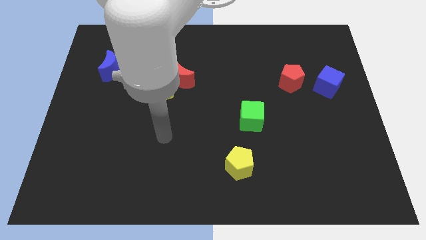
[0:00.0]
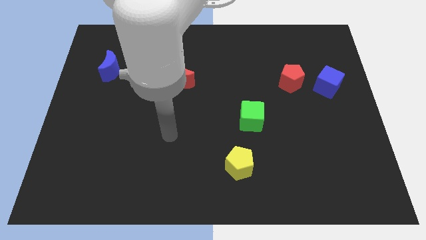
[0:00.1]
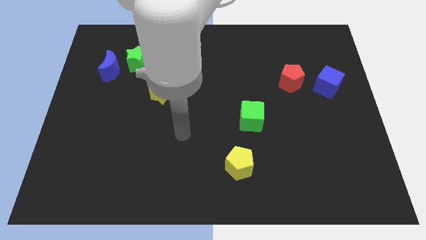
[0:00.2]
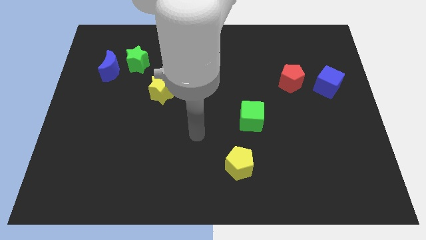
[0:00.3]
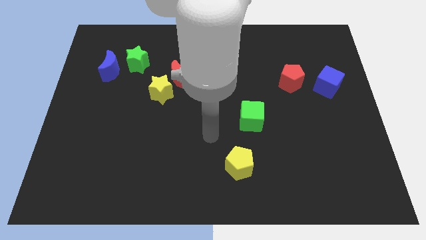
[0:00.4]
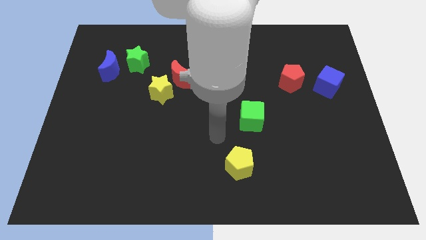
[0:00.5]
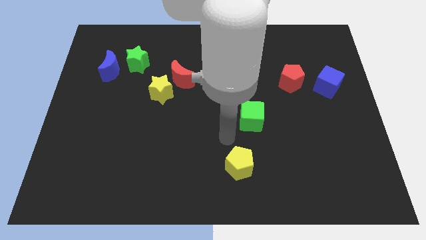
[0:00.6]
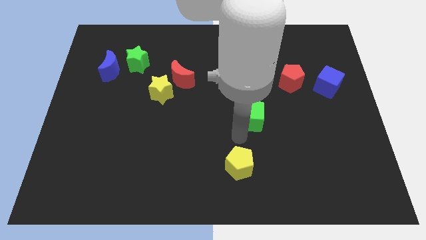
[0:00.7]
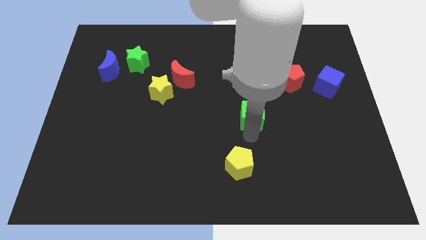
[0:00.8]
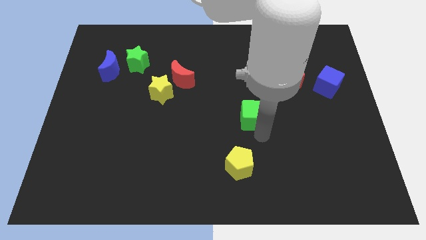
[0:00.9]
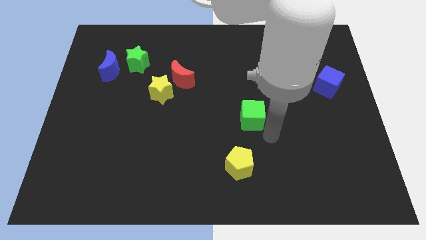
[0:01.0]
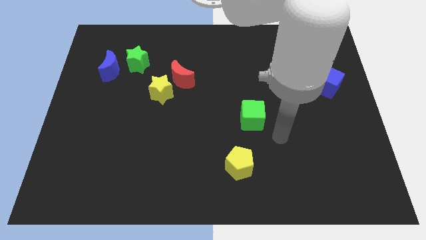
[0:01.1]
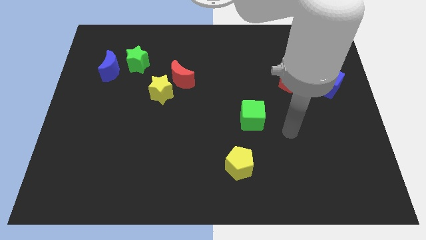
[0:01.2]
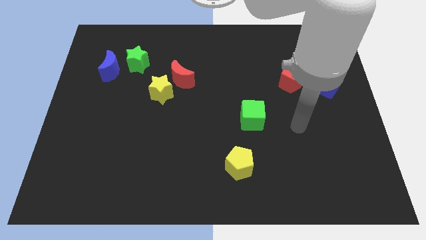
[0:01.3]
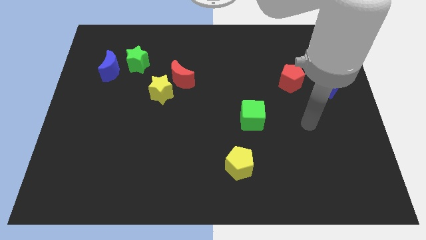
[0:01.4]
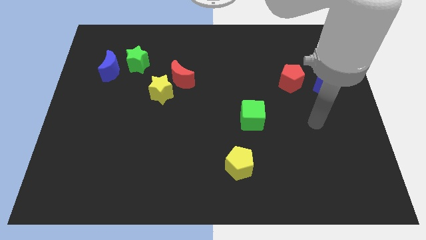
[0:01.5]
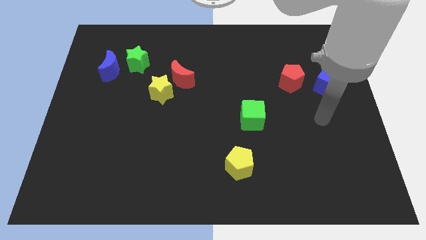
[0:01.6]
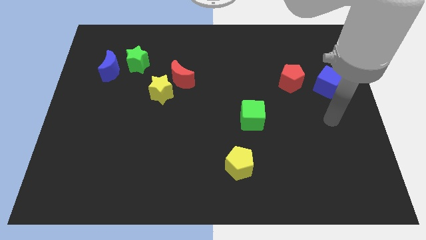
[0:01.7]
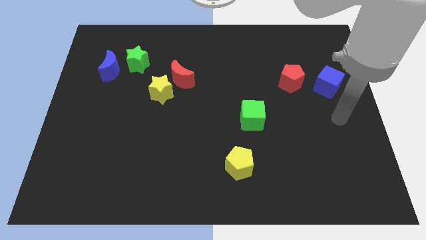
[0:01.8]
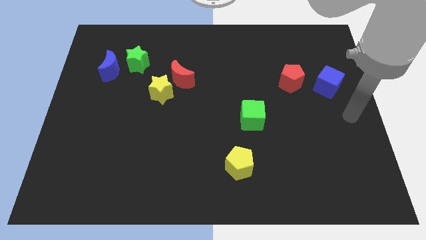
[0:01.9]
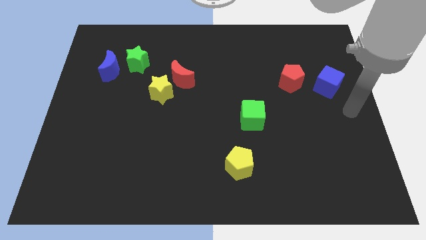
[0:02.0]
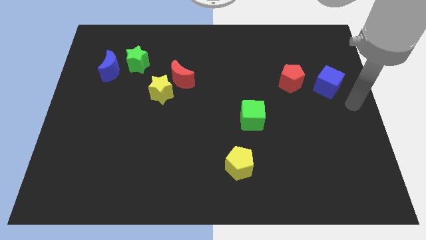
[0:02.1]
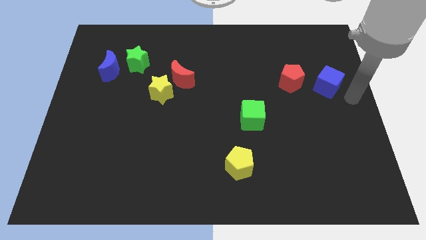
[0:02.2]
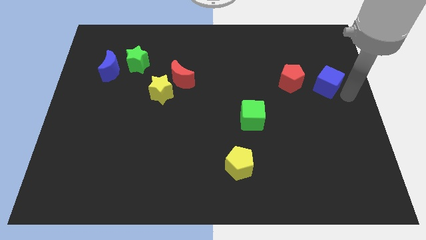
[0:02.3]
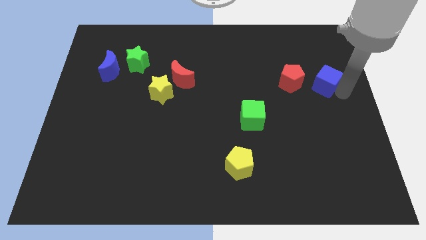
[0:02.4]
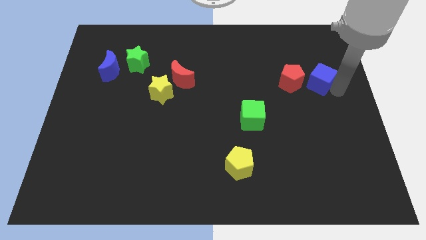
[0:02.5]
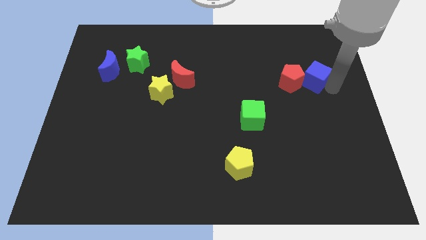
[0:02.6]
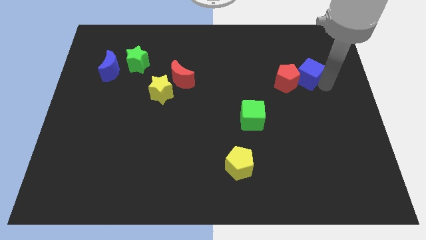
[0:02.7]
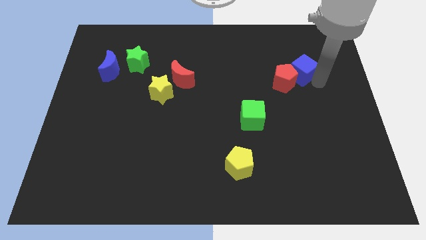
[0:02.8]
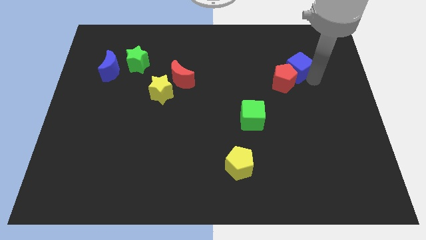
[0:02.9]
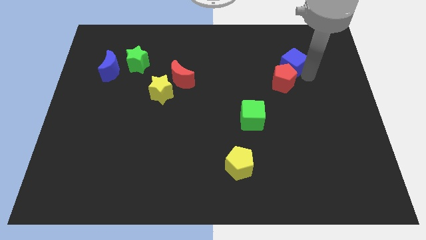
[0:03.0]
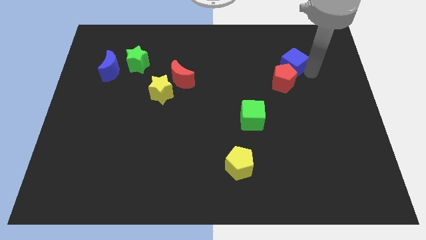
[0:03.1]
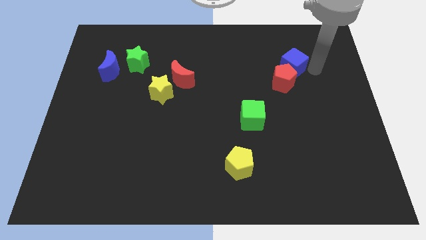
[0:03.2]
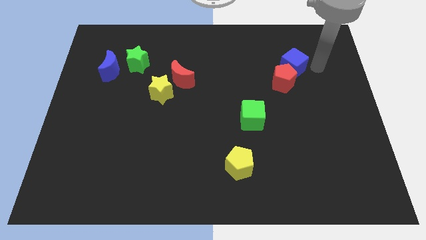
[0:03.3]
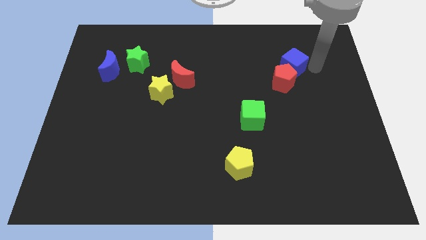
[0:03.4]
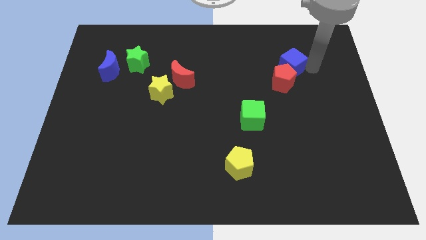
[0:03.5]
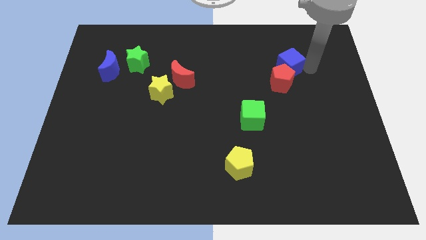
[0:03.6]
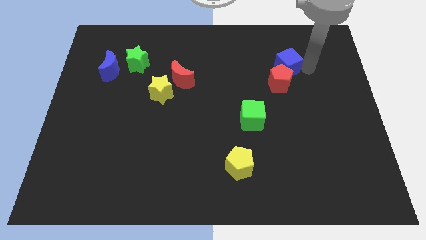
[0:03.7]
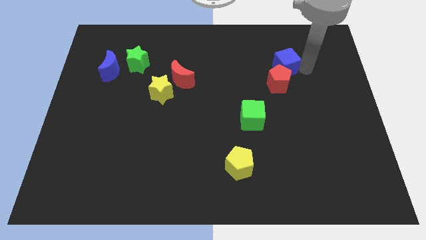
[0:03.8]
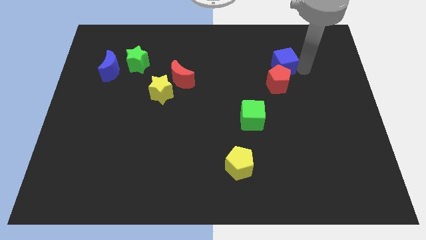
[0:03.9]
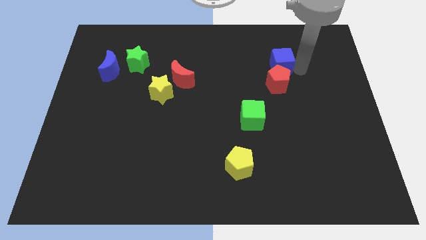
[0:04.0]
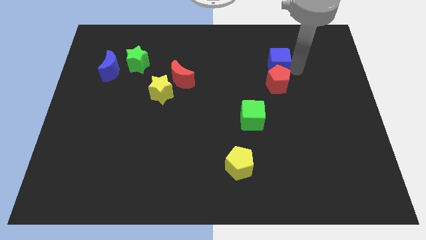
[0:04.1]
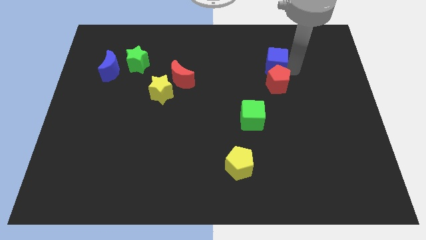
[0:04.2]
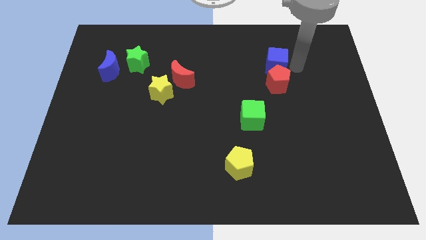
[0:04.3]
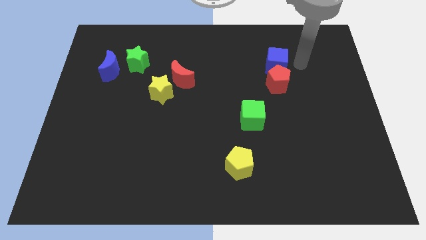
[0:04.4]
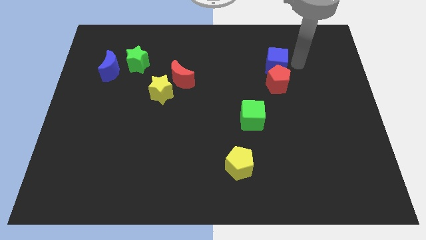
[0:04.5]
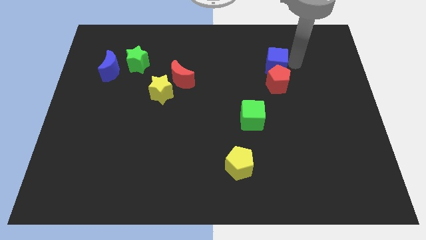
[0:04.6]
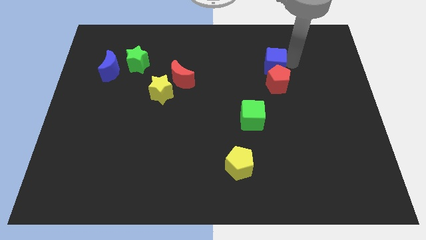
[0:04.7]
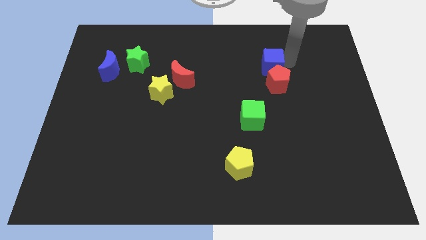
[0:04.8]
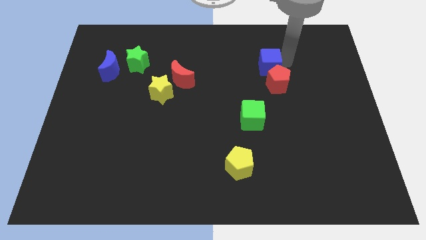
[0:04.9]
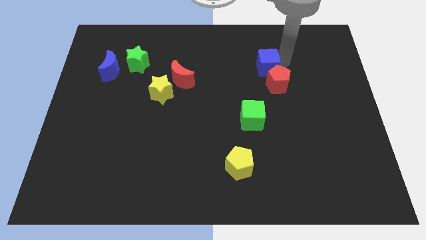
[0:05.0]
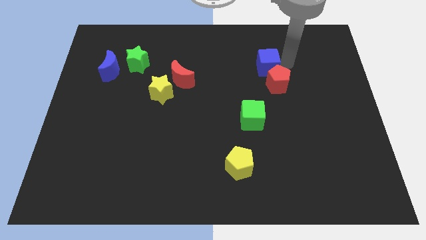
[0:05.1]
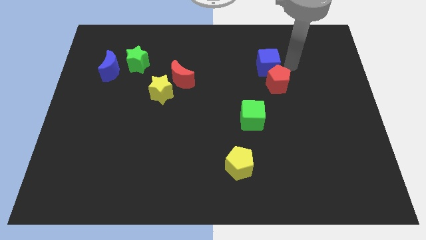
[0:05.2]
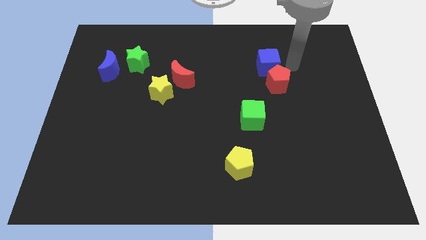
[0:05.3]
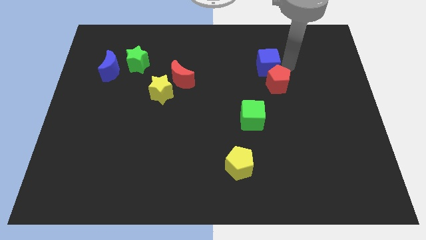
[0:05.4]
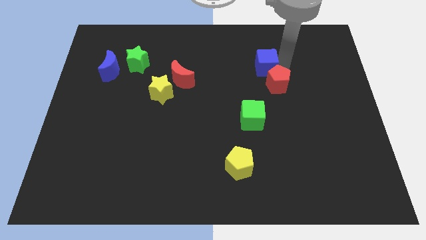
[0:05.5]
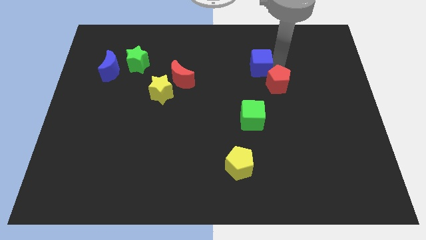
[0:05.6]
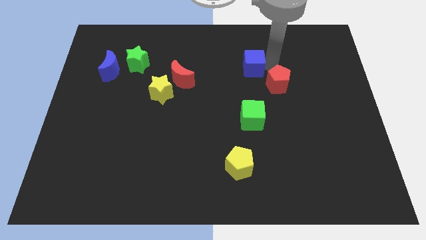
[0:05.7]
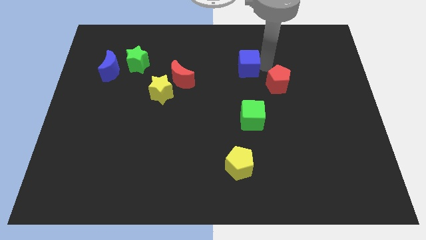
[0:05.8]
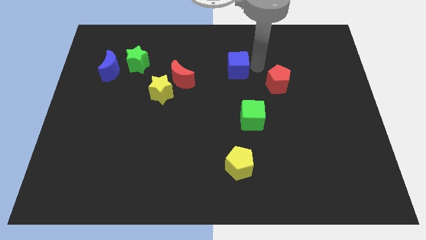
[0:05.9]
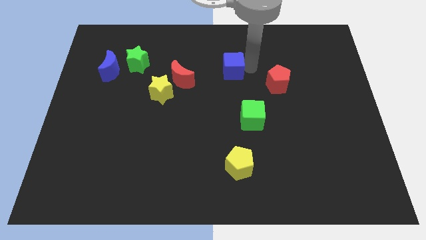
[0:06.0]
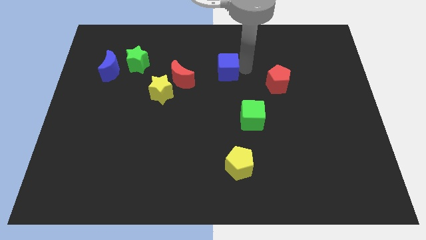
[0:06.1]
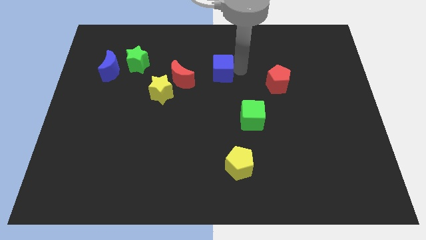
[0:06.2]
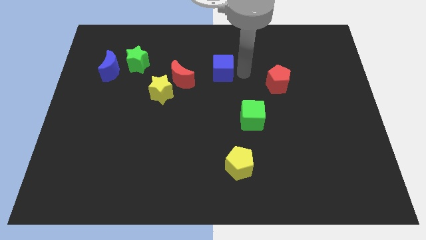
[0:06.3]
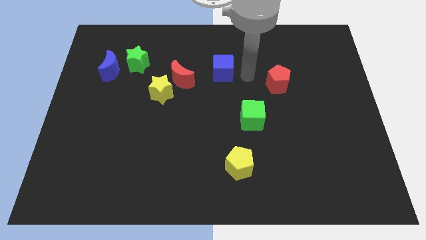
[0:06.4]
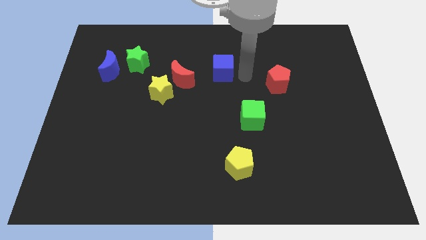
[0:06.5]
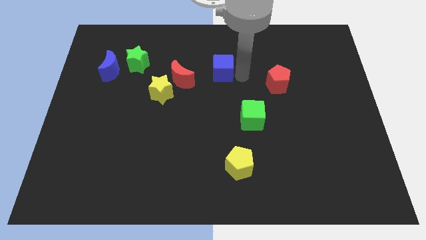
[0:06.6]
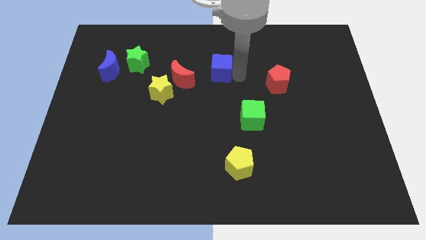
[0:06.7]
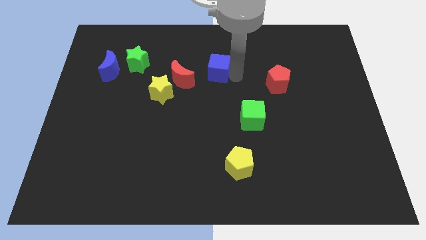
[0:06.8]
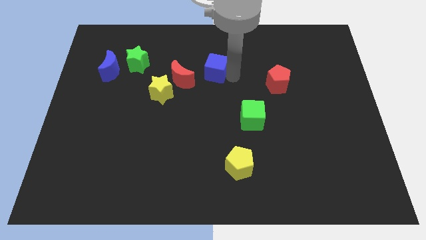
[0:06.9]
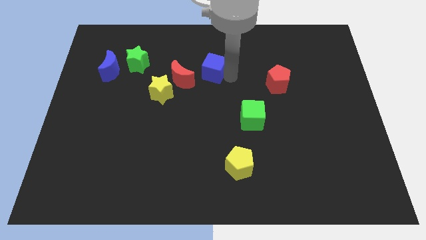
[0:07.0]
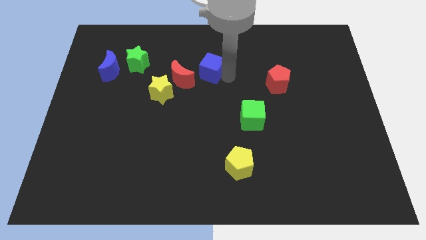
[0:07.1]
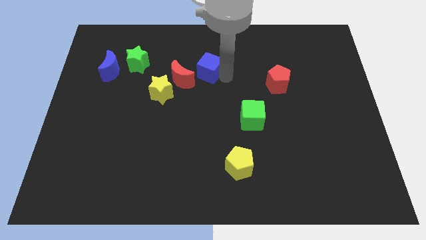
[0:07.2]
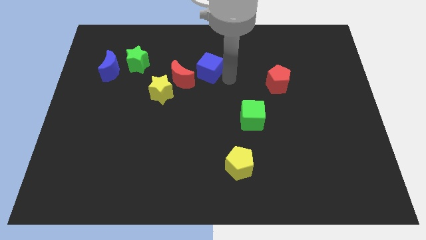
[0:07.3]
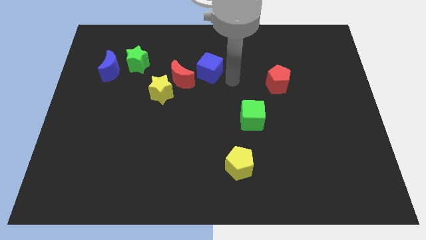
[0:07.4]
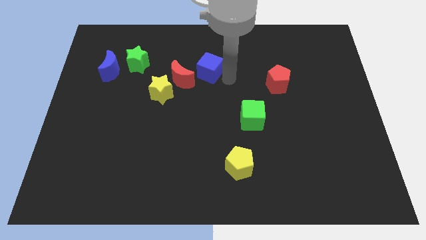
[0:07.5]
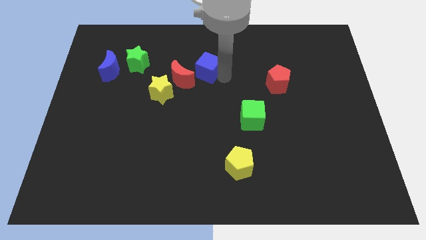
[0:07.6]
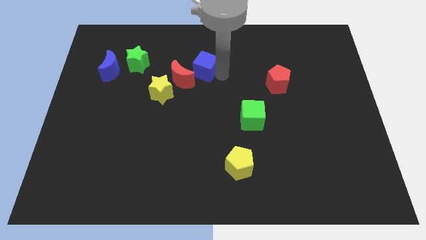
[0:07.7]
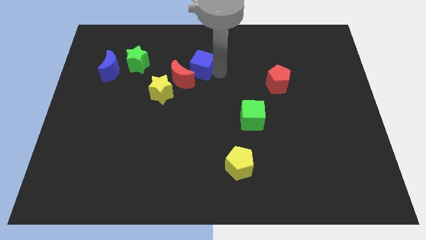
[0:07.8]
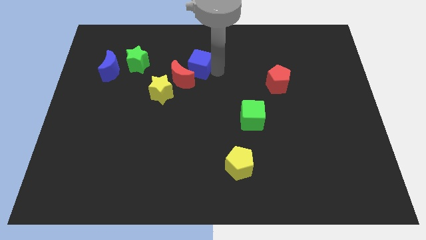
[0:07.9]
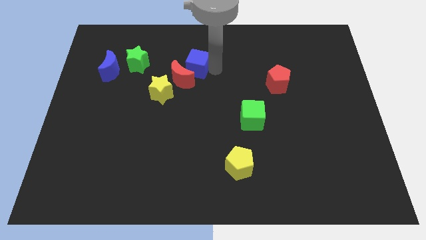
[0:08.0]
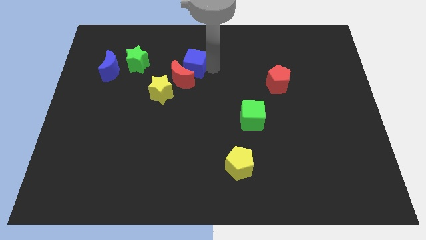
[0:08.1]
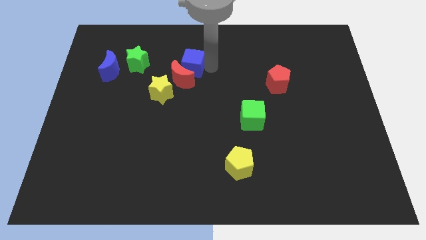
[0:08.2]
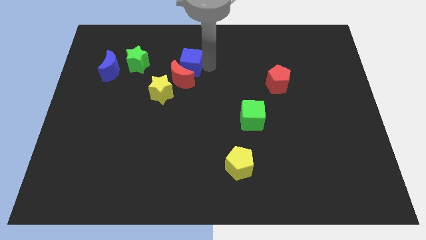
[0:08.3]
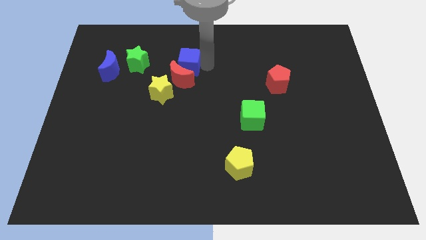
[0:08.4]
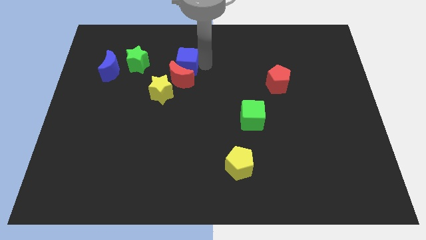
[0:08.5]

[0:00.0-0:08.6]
push the blue cube to the top left side of the red moon
